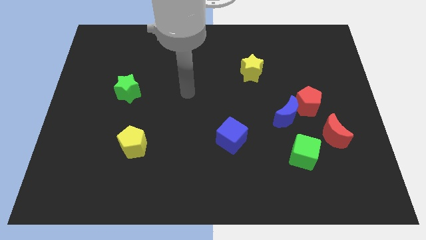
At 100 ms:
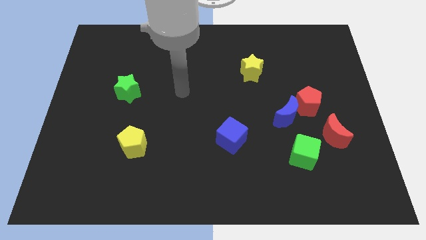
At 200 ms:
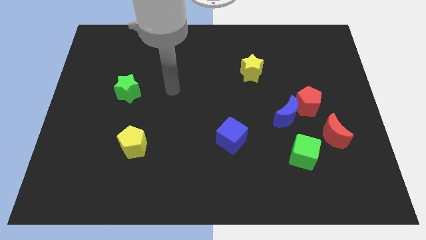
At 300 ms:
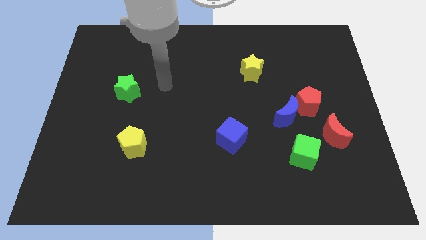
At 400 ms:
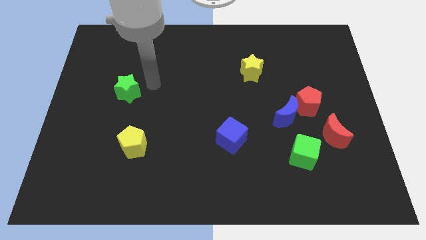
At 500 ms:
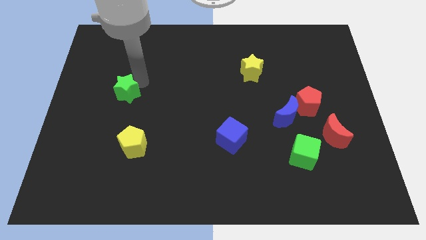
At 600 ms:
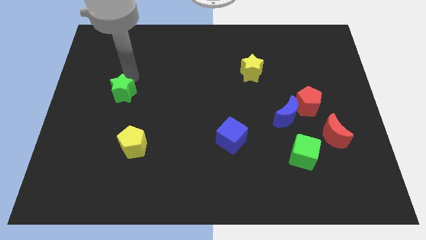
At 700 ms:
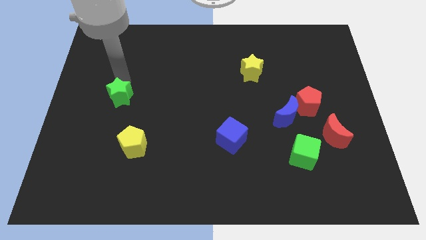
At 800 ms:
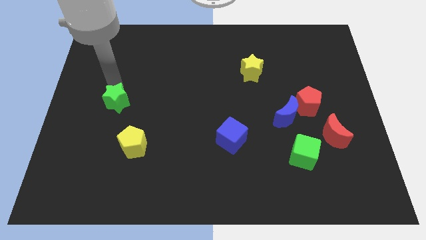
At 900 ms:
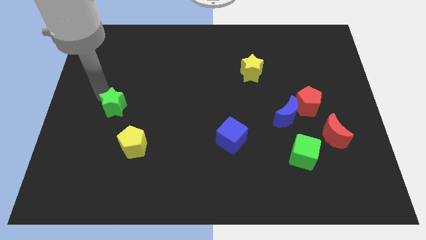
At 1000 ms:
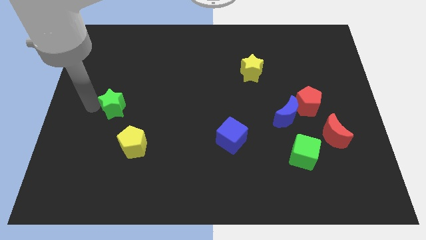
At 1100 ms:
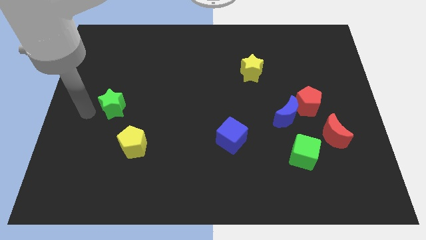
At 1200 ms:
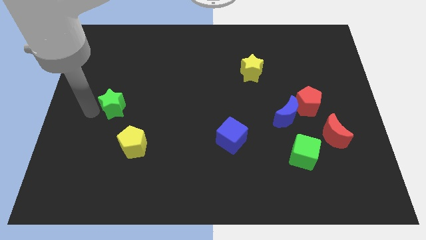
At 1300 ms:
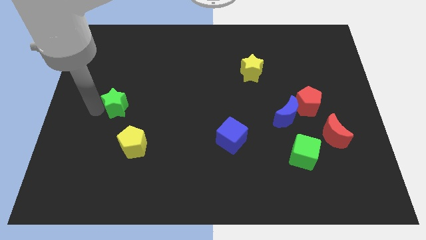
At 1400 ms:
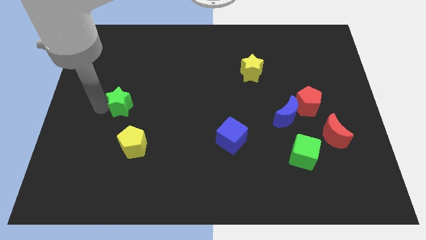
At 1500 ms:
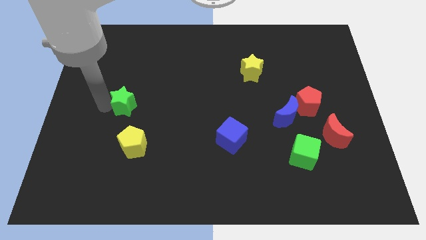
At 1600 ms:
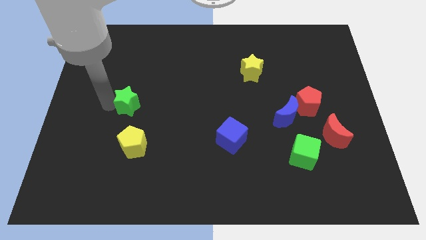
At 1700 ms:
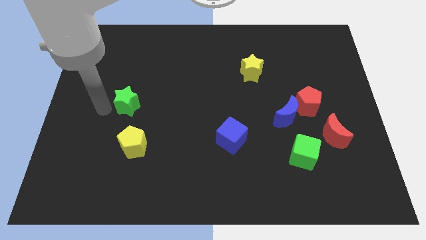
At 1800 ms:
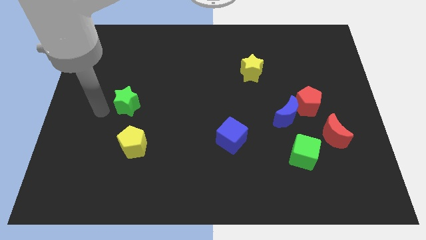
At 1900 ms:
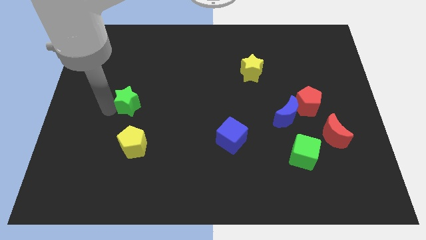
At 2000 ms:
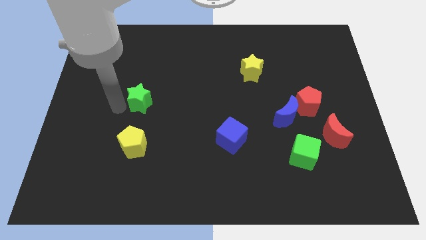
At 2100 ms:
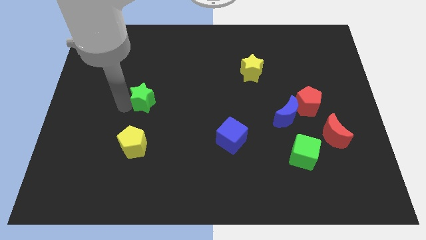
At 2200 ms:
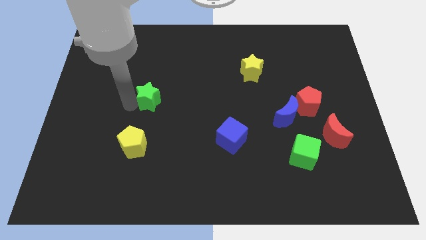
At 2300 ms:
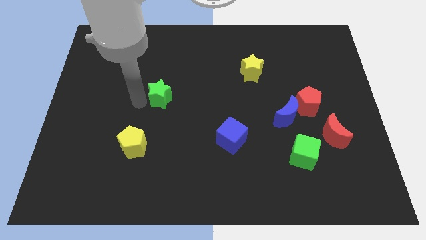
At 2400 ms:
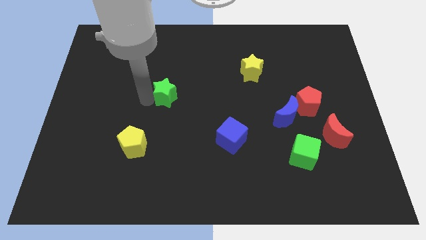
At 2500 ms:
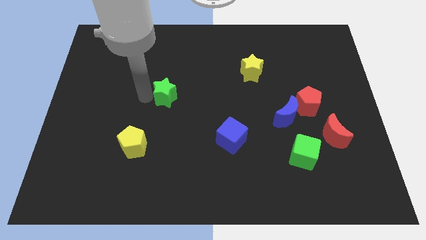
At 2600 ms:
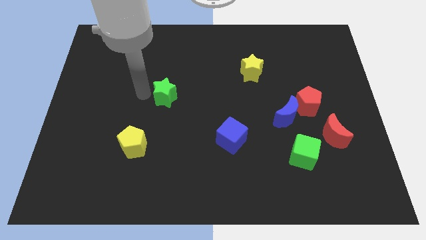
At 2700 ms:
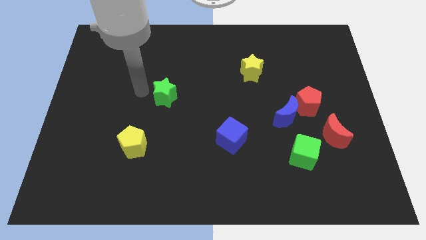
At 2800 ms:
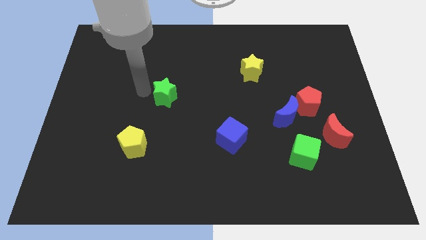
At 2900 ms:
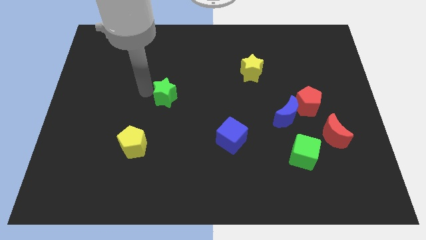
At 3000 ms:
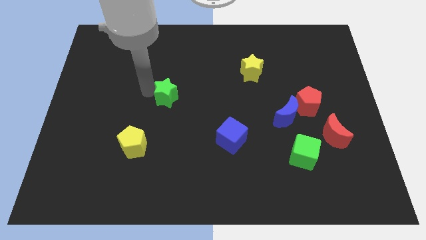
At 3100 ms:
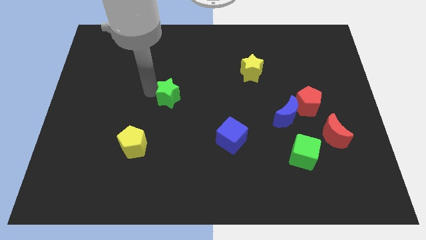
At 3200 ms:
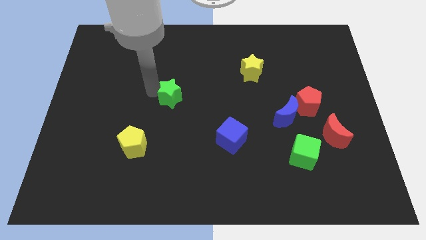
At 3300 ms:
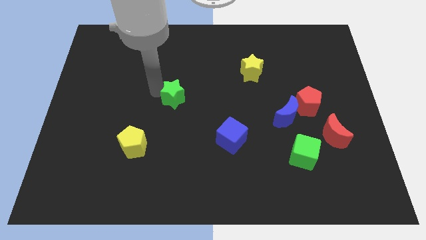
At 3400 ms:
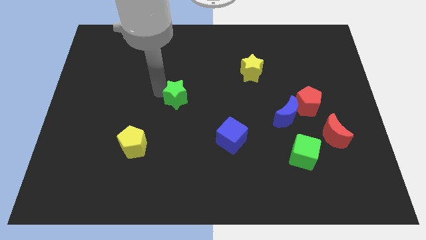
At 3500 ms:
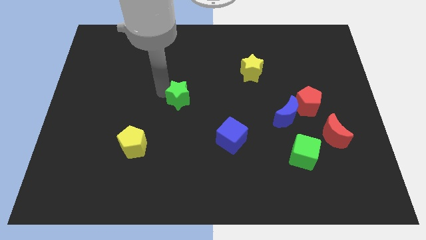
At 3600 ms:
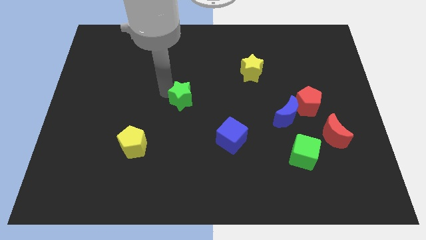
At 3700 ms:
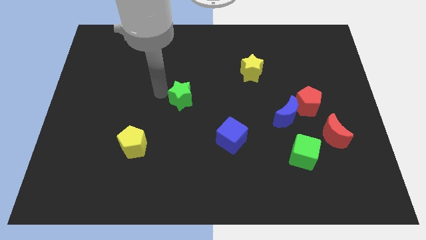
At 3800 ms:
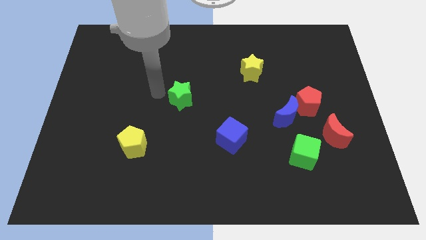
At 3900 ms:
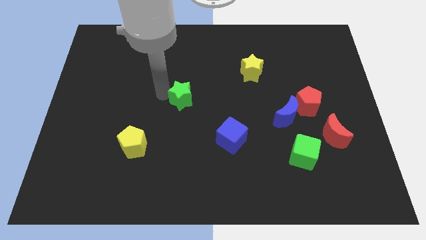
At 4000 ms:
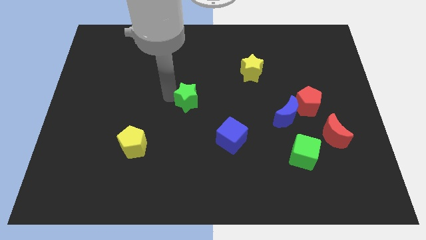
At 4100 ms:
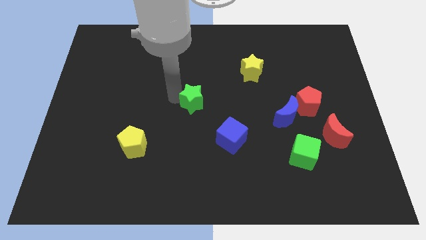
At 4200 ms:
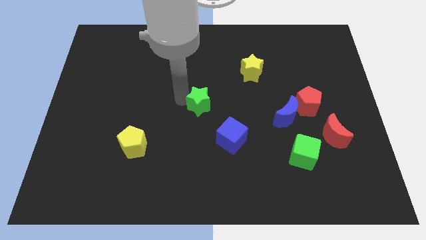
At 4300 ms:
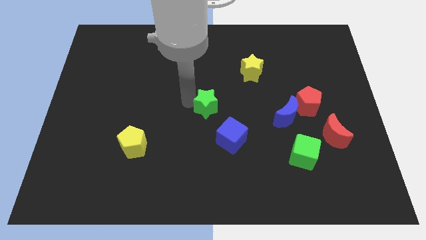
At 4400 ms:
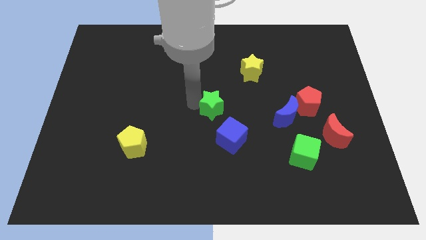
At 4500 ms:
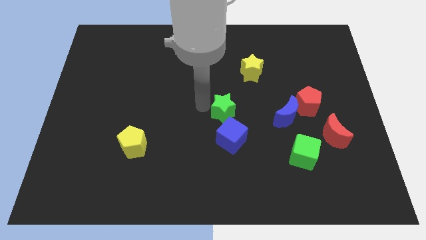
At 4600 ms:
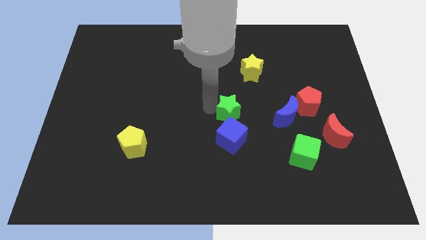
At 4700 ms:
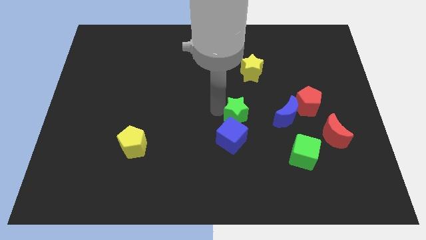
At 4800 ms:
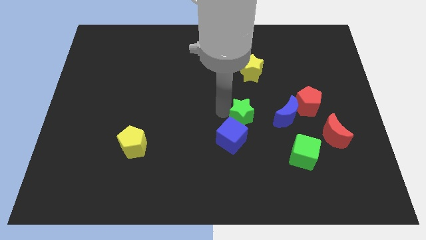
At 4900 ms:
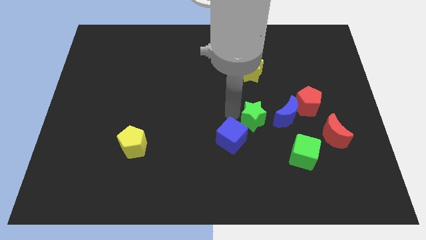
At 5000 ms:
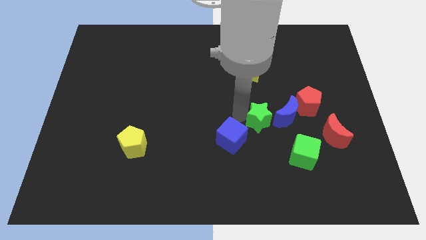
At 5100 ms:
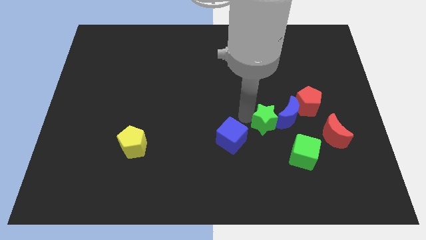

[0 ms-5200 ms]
slide the green star diagonally down and to the left of the red pentagon
